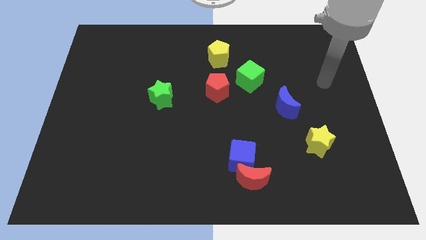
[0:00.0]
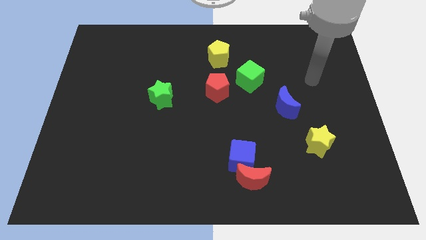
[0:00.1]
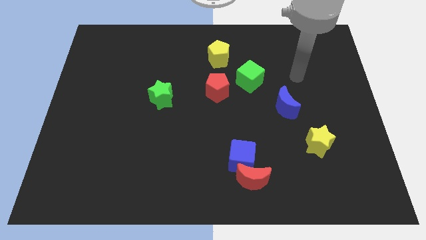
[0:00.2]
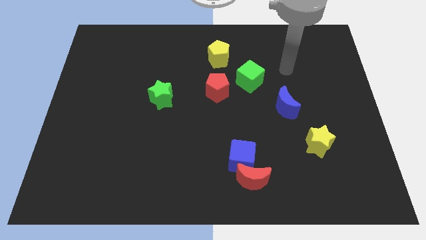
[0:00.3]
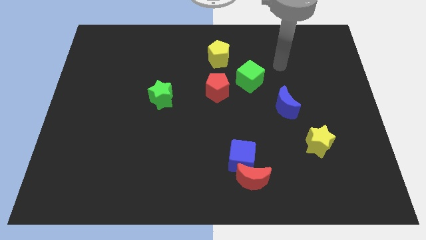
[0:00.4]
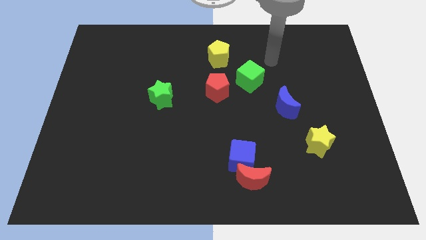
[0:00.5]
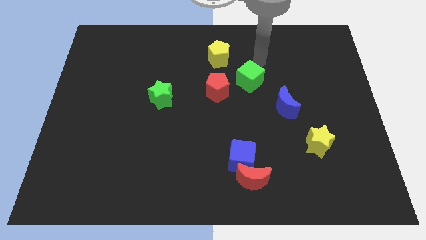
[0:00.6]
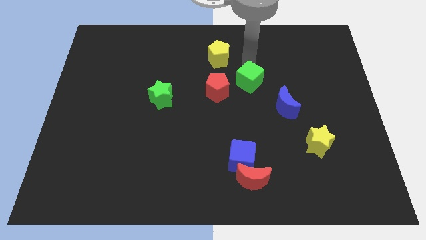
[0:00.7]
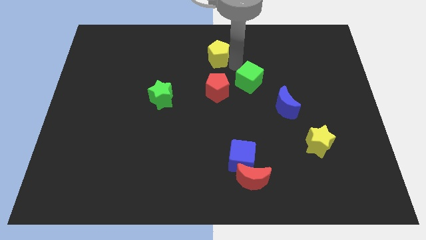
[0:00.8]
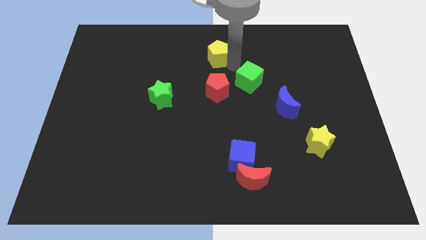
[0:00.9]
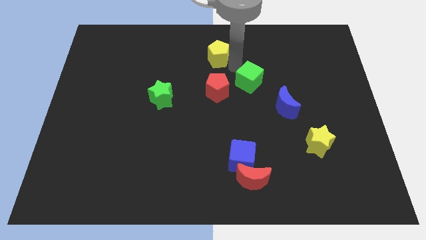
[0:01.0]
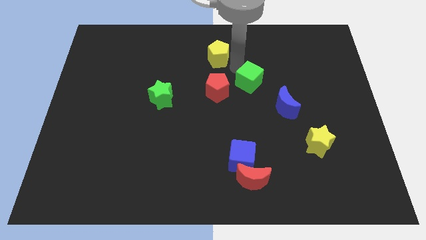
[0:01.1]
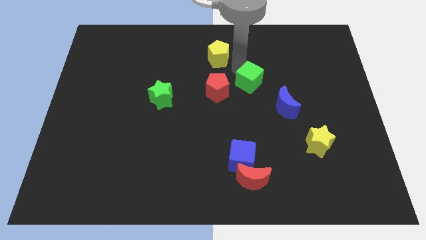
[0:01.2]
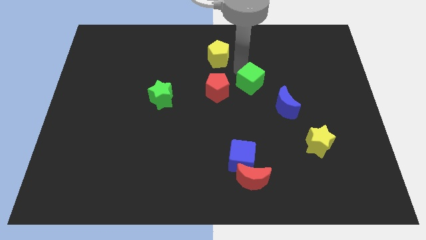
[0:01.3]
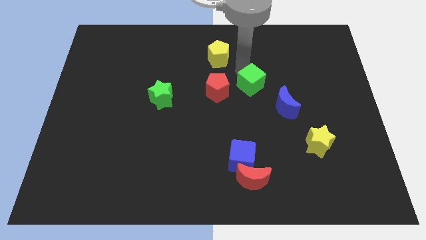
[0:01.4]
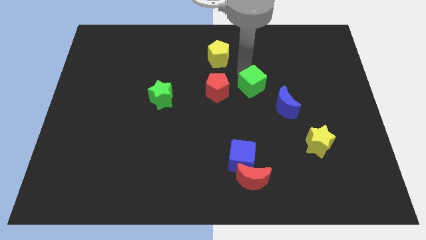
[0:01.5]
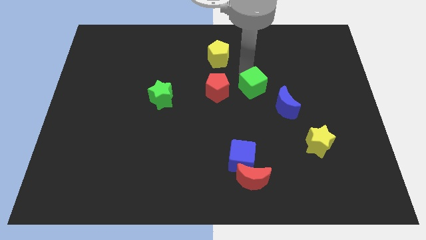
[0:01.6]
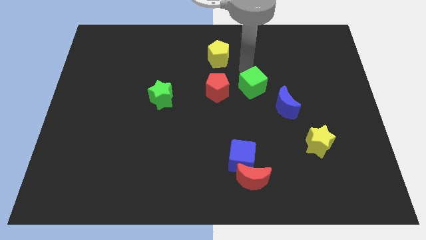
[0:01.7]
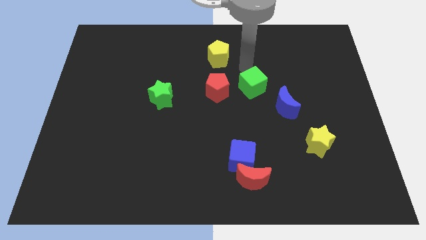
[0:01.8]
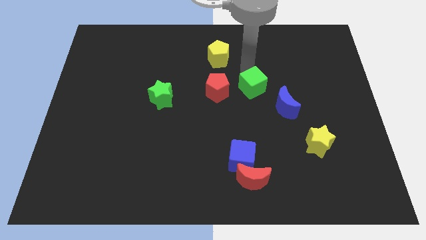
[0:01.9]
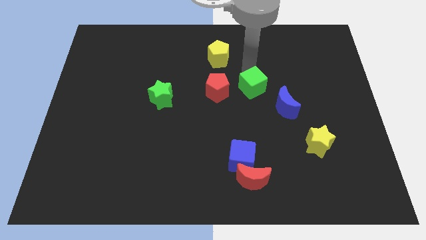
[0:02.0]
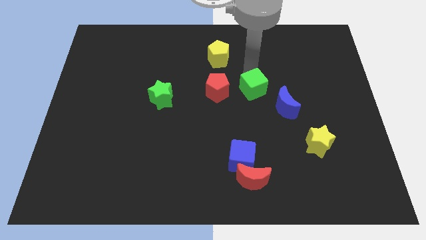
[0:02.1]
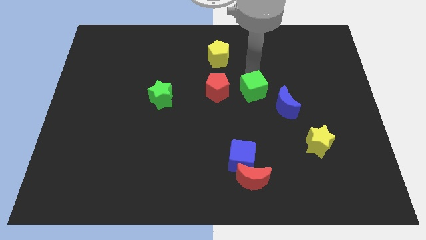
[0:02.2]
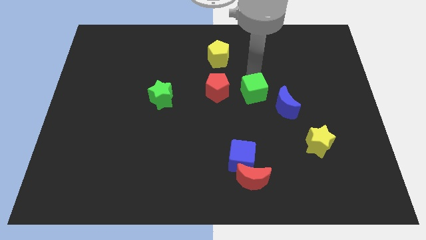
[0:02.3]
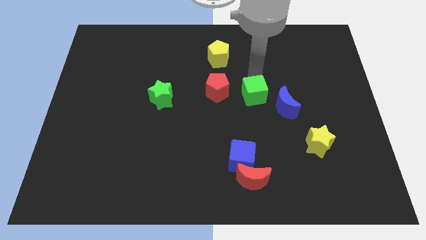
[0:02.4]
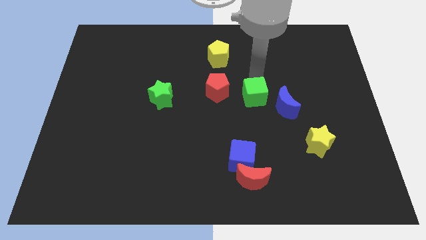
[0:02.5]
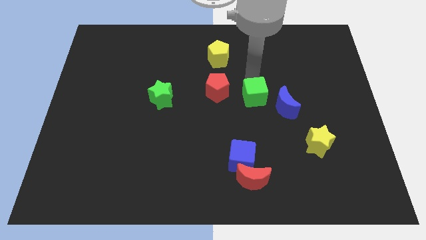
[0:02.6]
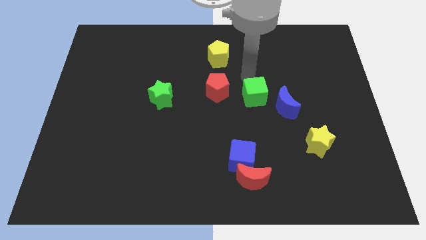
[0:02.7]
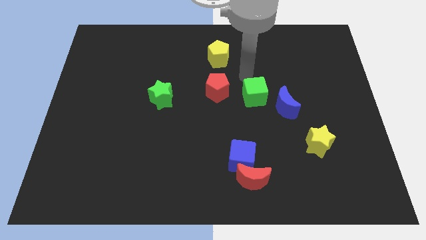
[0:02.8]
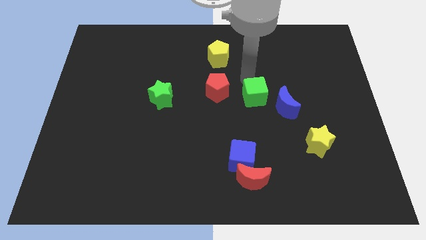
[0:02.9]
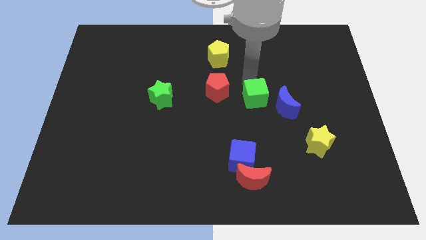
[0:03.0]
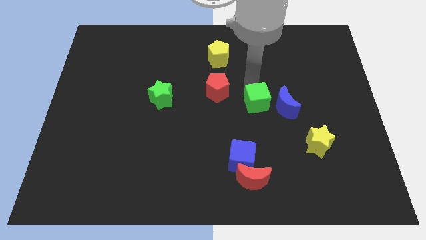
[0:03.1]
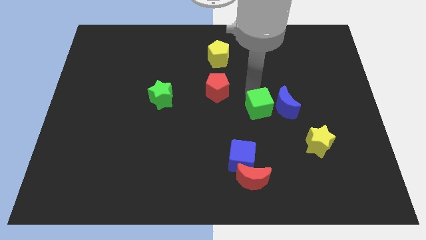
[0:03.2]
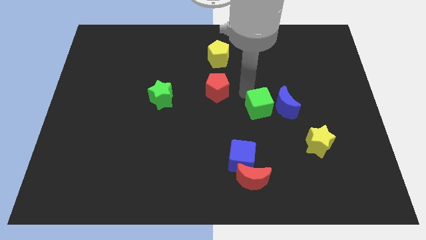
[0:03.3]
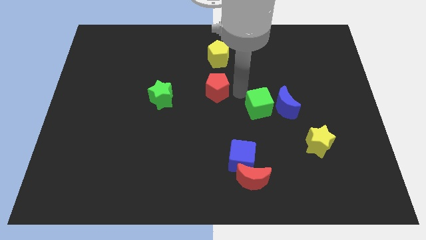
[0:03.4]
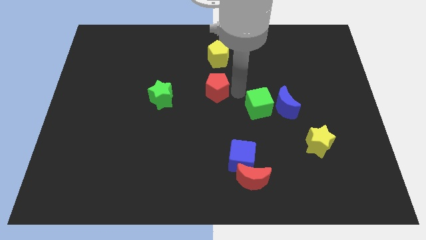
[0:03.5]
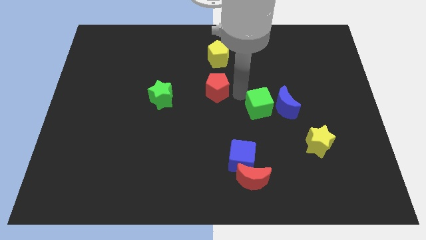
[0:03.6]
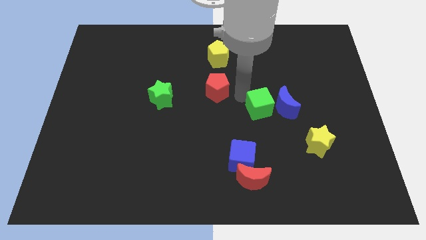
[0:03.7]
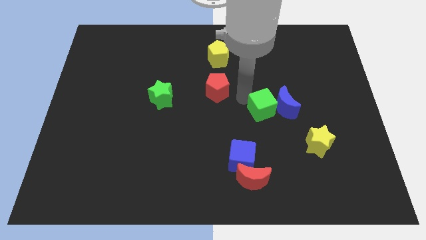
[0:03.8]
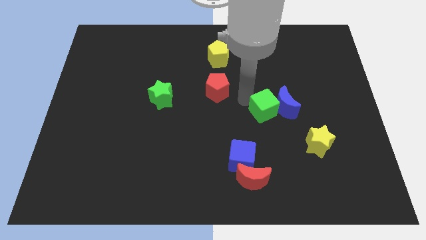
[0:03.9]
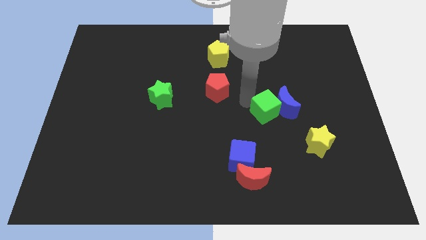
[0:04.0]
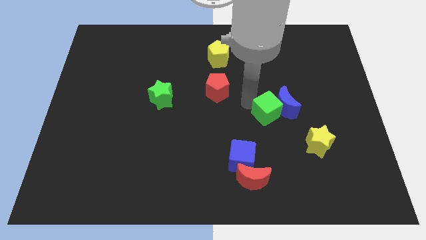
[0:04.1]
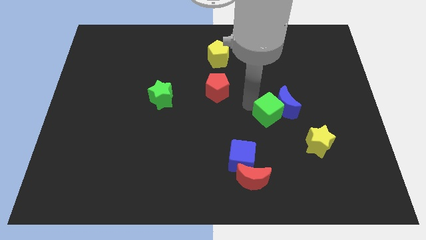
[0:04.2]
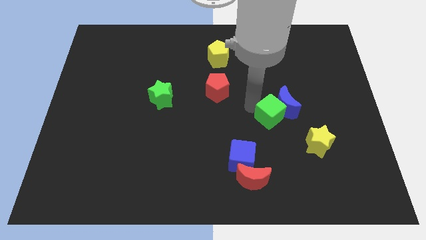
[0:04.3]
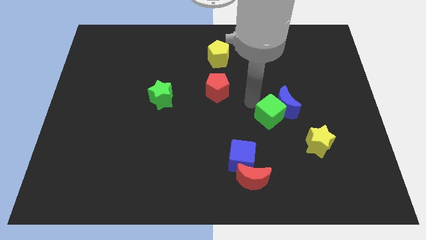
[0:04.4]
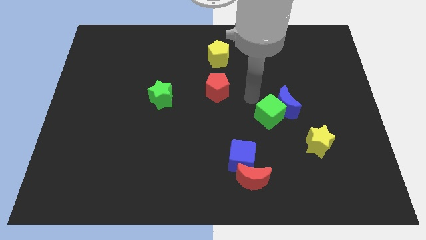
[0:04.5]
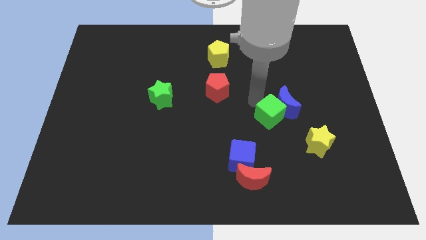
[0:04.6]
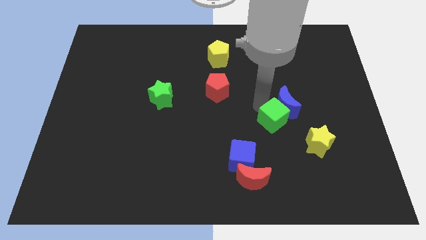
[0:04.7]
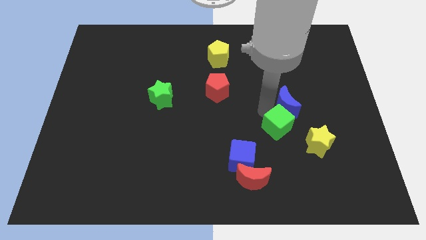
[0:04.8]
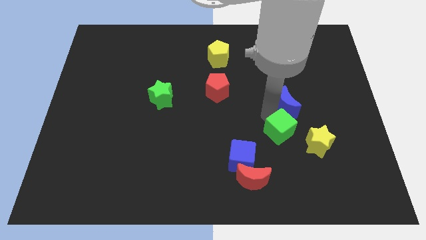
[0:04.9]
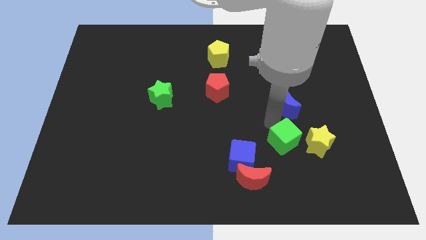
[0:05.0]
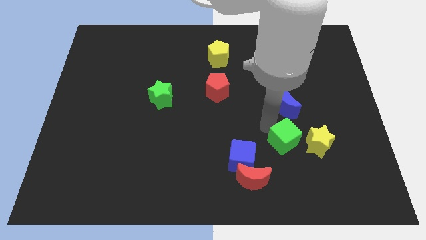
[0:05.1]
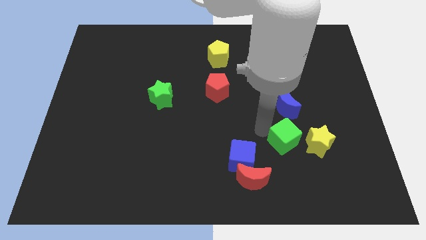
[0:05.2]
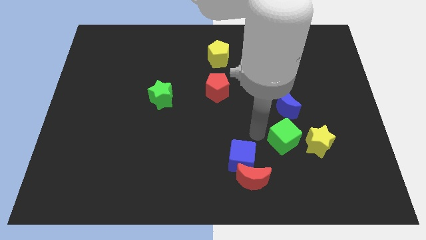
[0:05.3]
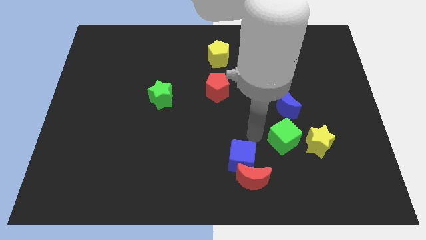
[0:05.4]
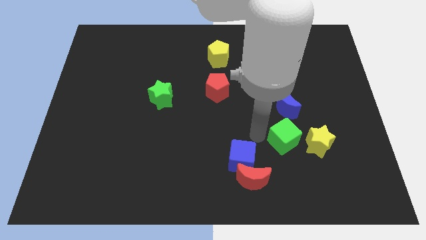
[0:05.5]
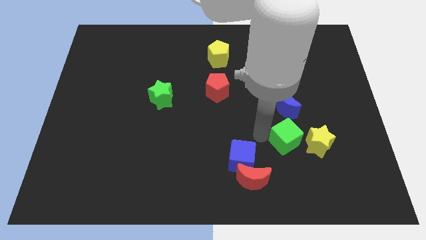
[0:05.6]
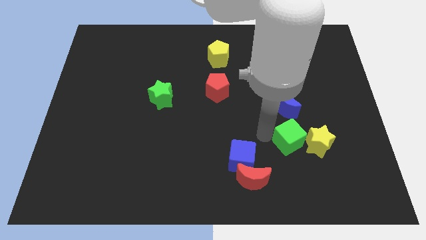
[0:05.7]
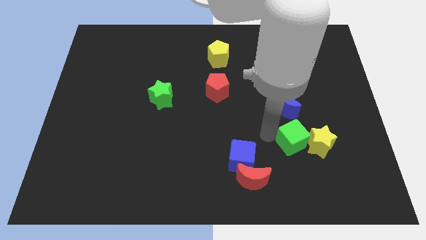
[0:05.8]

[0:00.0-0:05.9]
push the green cube close to the yellow star

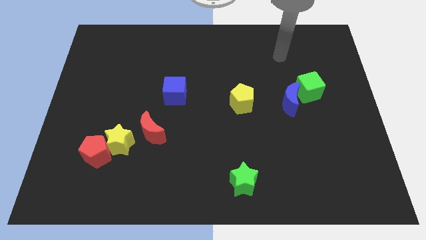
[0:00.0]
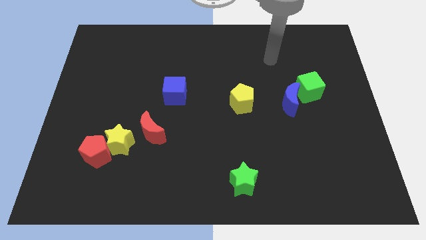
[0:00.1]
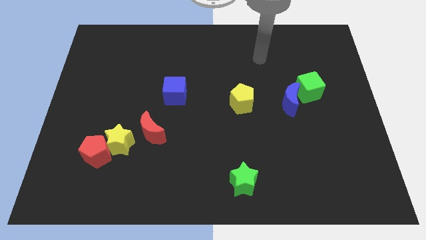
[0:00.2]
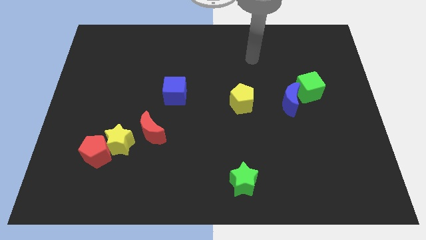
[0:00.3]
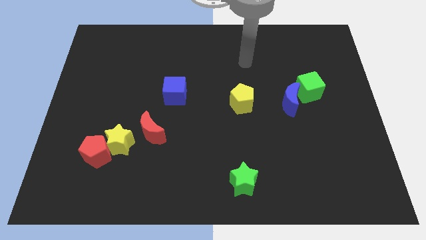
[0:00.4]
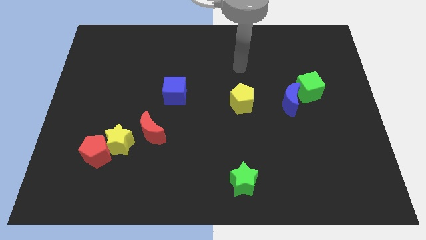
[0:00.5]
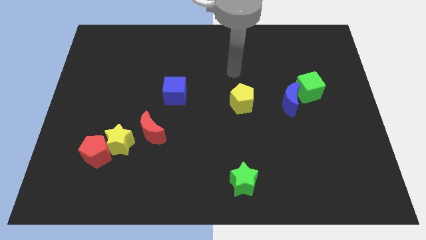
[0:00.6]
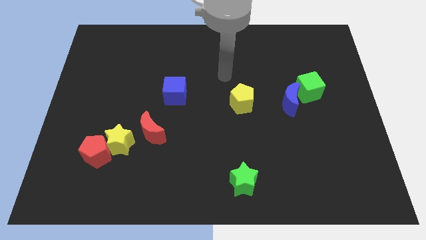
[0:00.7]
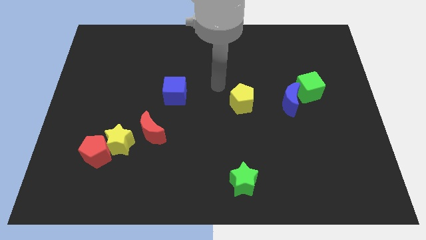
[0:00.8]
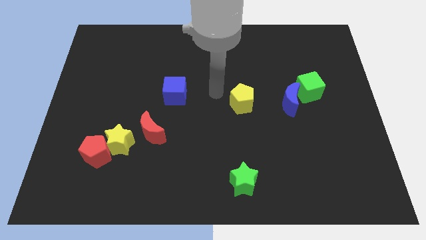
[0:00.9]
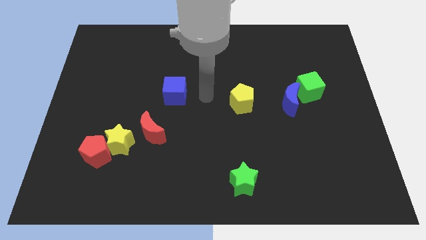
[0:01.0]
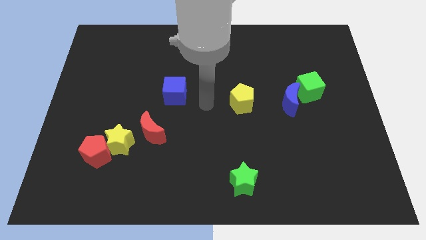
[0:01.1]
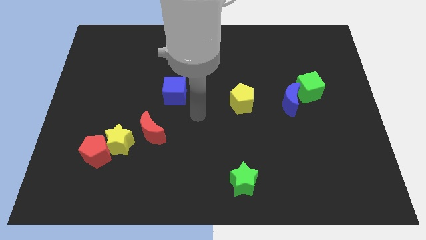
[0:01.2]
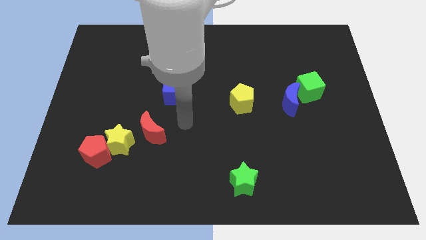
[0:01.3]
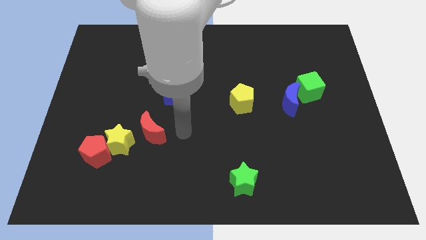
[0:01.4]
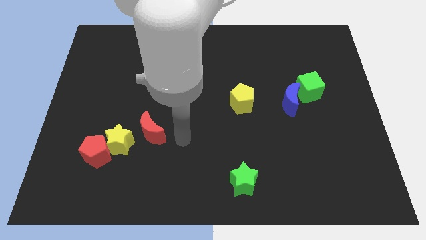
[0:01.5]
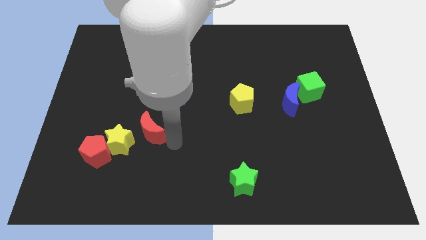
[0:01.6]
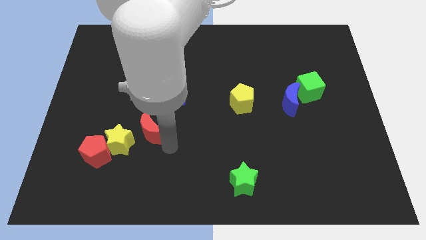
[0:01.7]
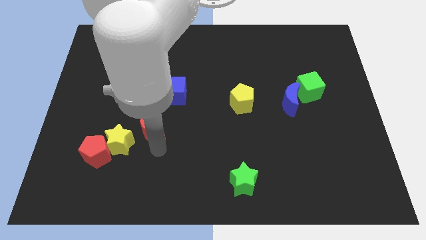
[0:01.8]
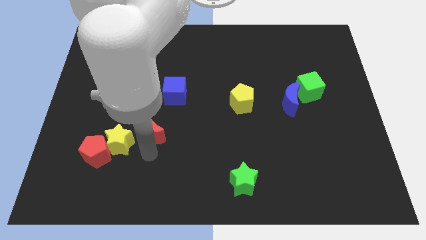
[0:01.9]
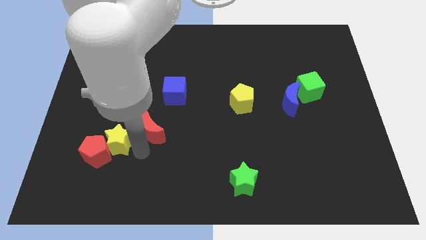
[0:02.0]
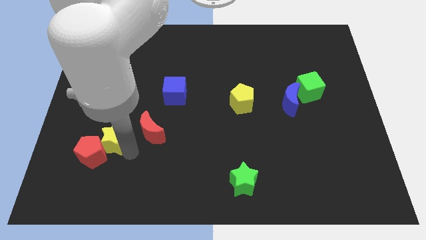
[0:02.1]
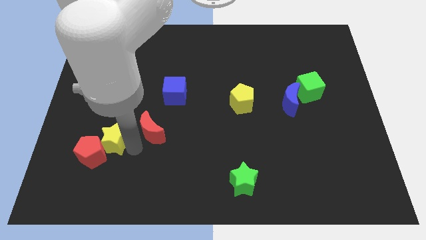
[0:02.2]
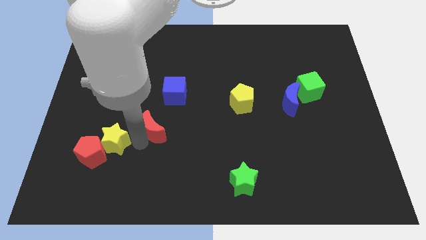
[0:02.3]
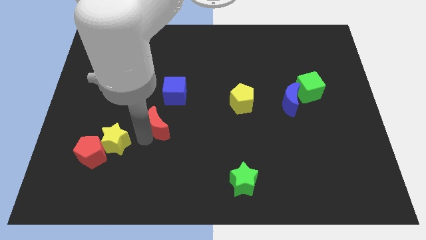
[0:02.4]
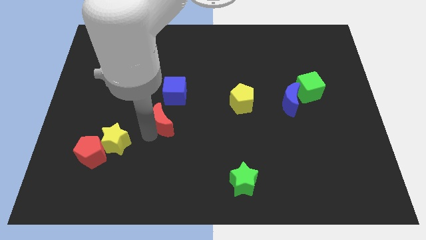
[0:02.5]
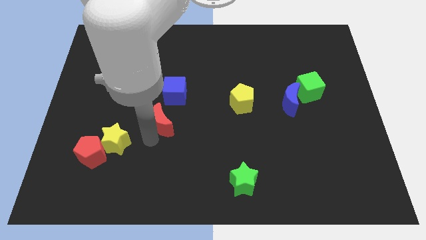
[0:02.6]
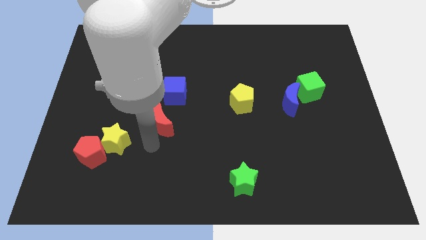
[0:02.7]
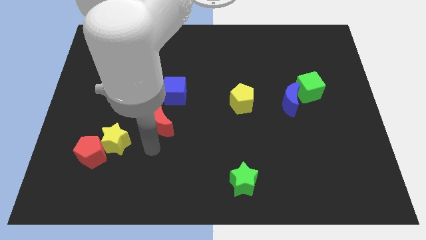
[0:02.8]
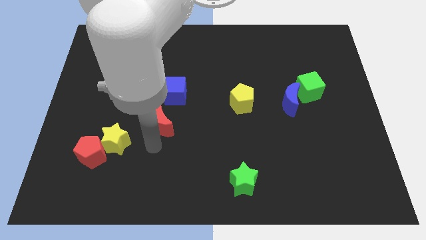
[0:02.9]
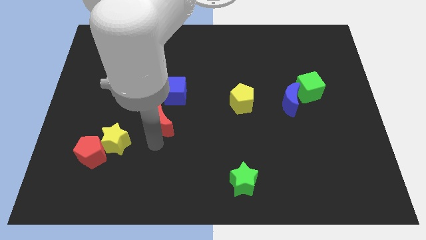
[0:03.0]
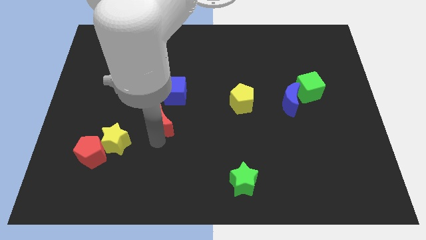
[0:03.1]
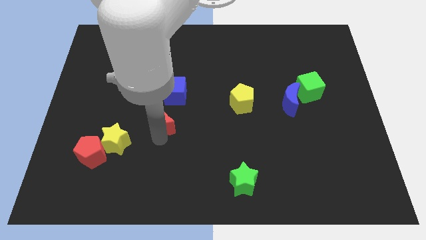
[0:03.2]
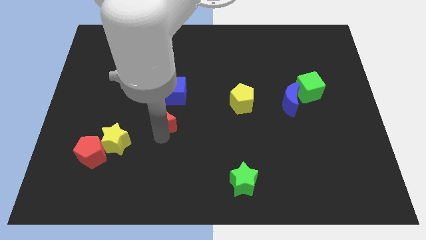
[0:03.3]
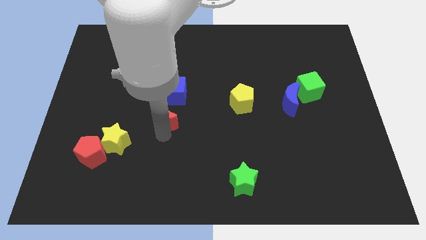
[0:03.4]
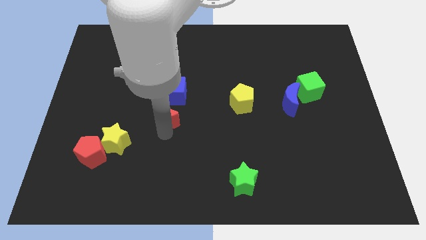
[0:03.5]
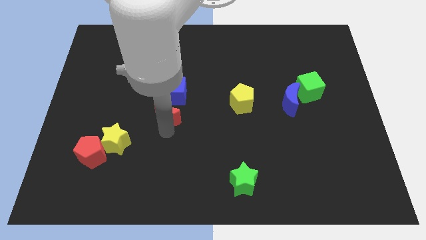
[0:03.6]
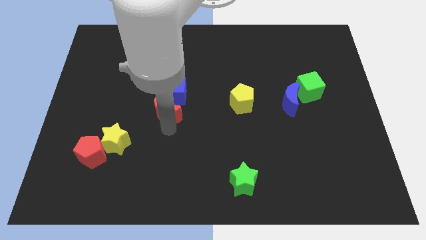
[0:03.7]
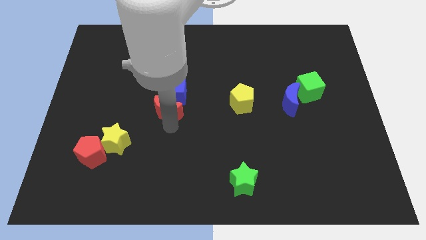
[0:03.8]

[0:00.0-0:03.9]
put the red moon to the blue cube
